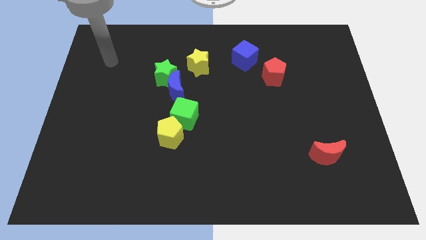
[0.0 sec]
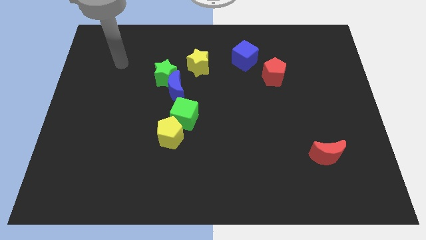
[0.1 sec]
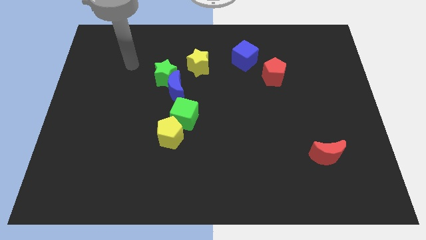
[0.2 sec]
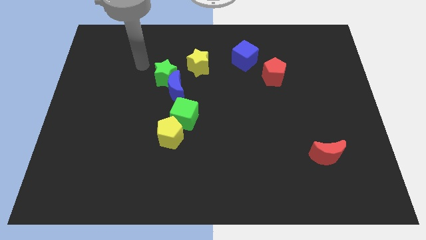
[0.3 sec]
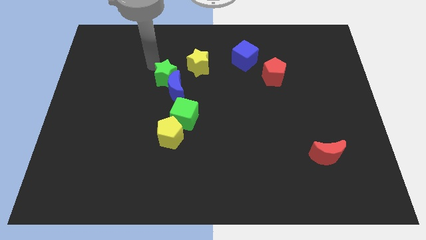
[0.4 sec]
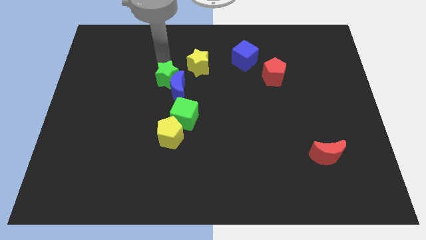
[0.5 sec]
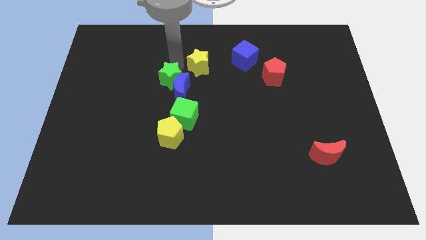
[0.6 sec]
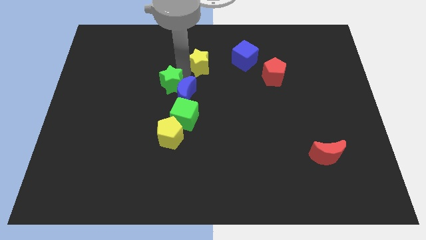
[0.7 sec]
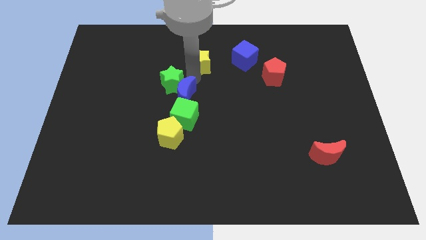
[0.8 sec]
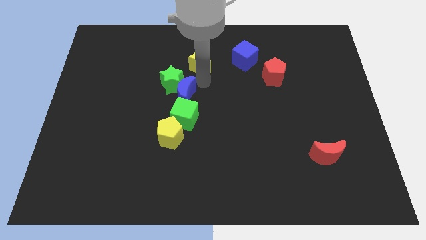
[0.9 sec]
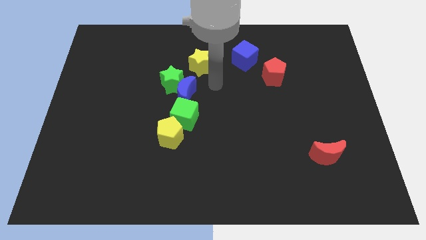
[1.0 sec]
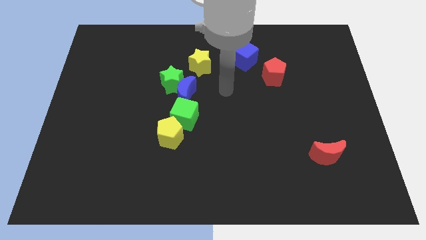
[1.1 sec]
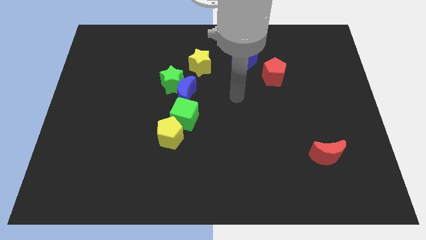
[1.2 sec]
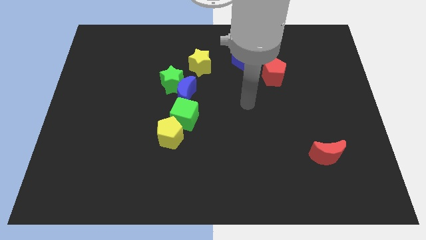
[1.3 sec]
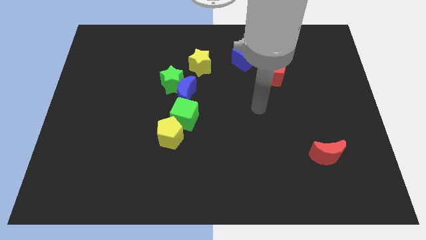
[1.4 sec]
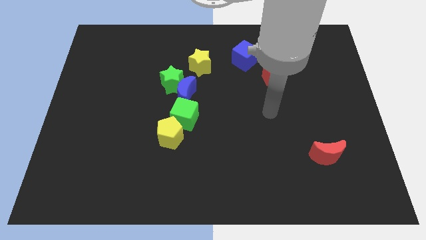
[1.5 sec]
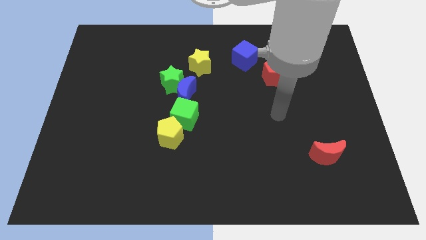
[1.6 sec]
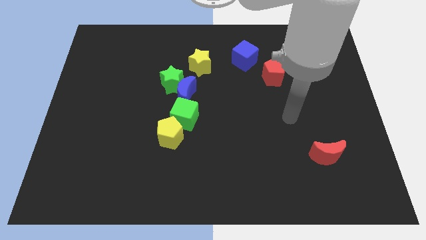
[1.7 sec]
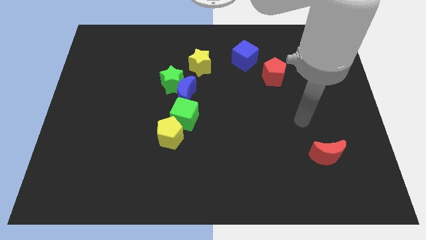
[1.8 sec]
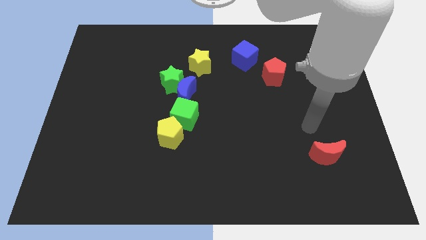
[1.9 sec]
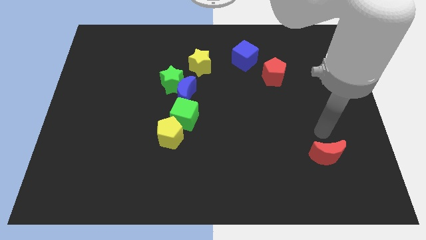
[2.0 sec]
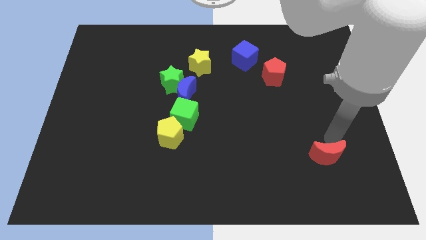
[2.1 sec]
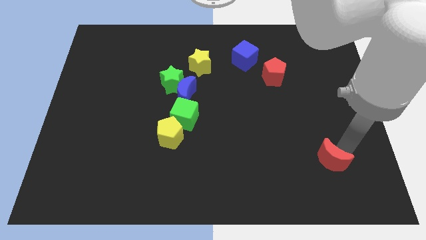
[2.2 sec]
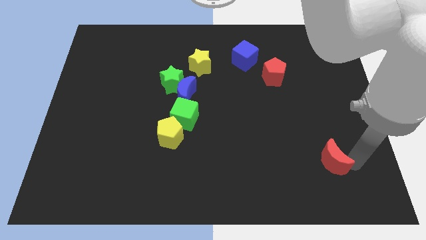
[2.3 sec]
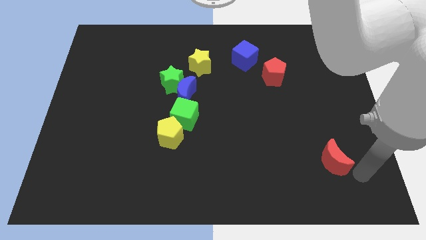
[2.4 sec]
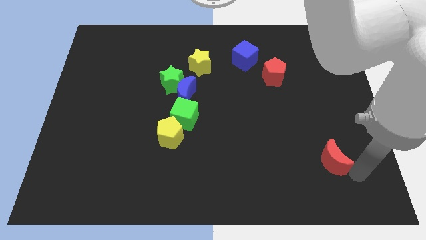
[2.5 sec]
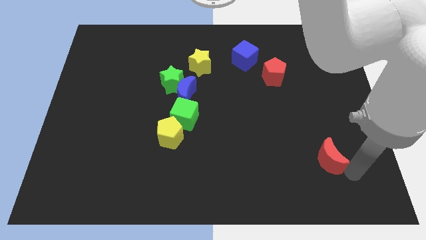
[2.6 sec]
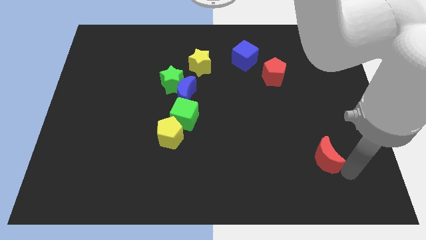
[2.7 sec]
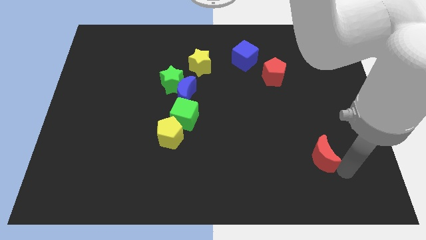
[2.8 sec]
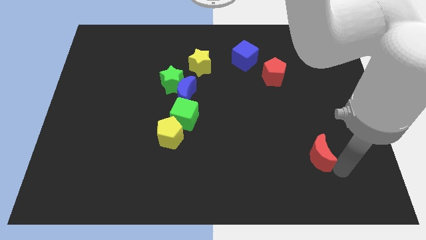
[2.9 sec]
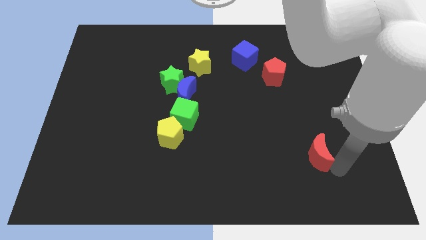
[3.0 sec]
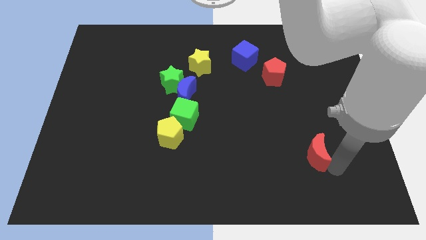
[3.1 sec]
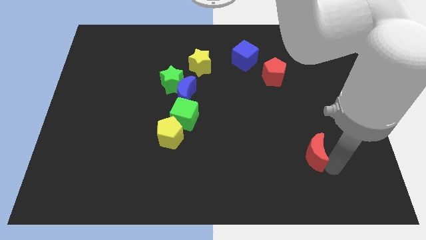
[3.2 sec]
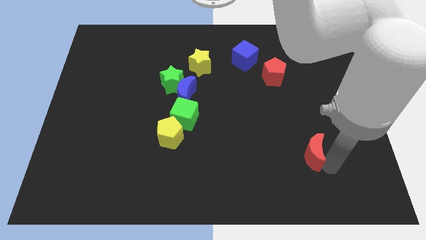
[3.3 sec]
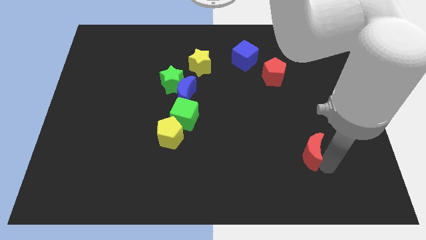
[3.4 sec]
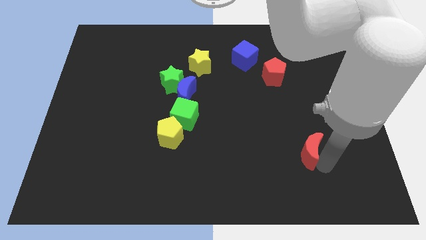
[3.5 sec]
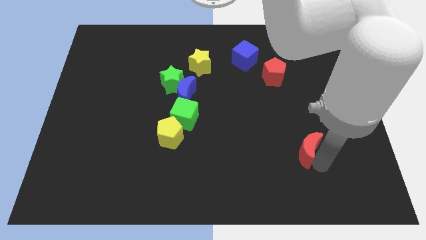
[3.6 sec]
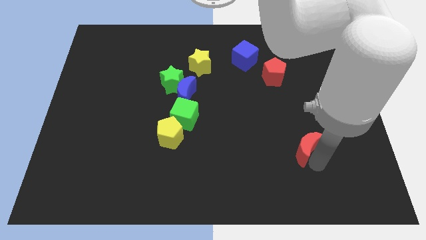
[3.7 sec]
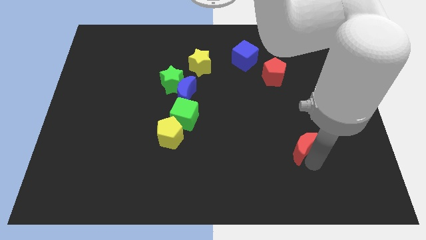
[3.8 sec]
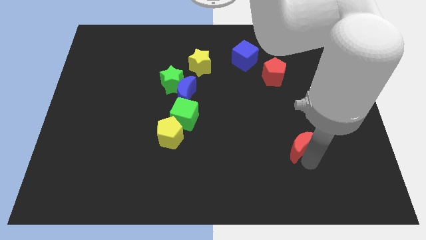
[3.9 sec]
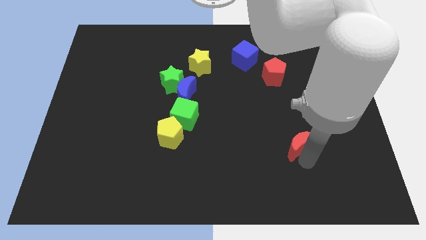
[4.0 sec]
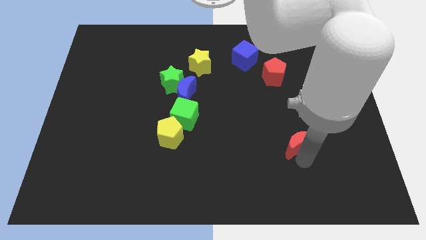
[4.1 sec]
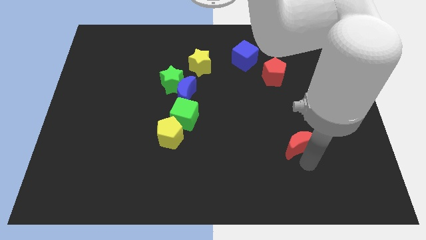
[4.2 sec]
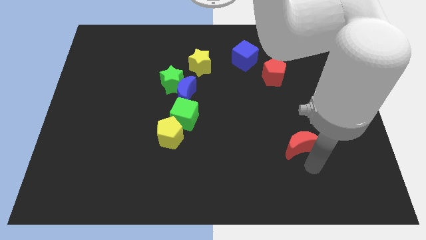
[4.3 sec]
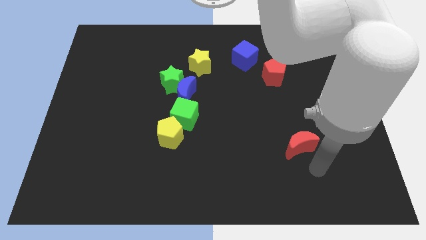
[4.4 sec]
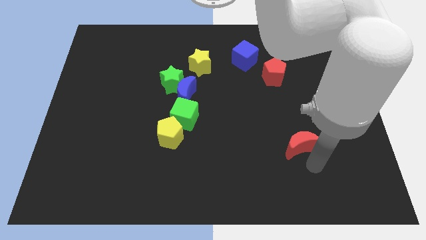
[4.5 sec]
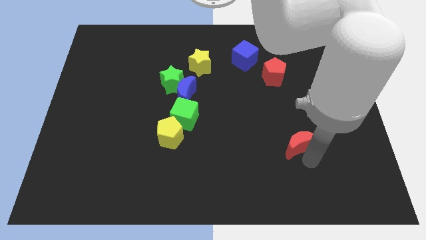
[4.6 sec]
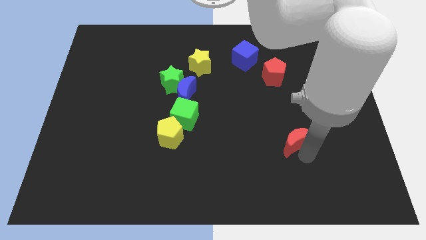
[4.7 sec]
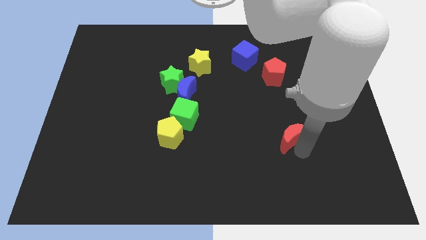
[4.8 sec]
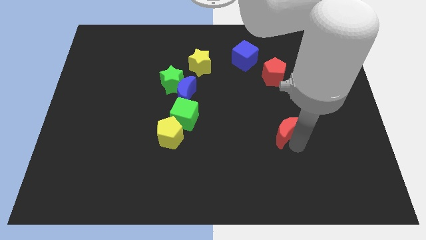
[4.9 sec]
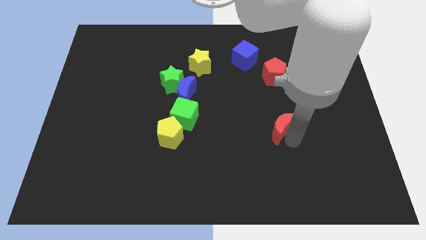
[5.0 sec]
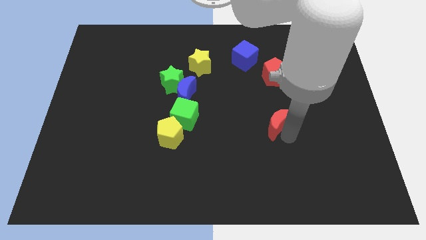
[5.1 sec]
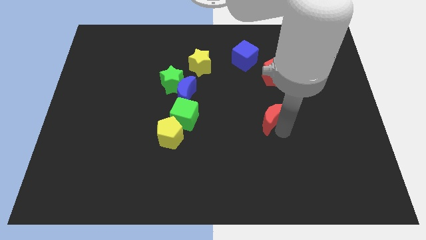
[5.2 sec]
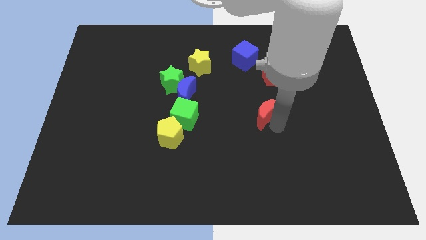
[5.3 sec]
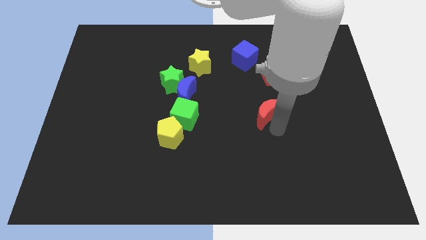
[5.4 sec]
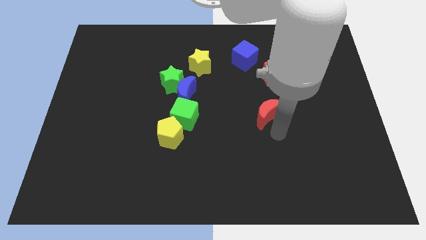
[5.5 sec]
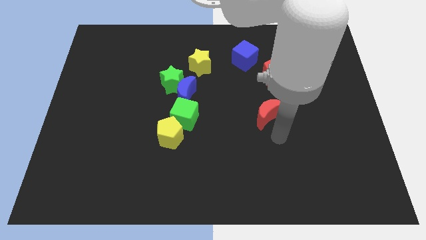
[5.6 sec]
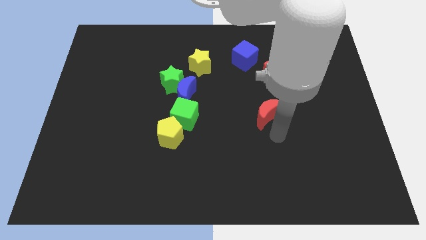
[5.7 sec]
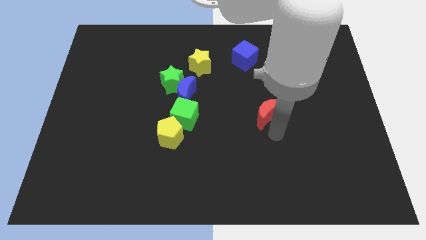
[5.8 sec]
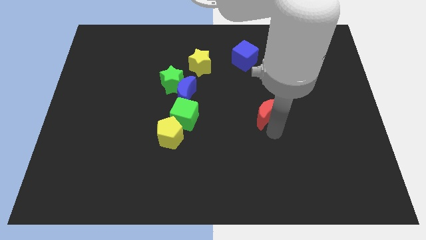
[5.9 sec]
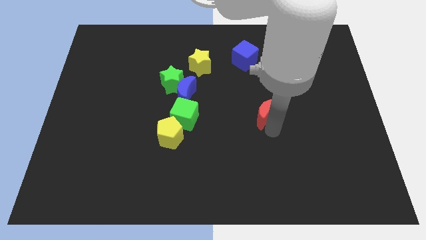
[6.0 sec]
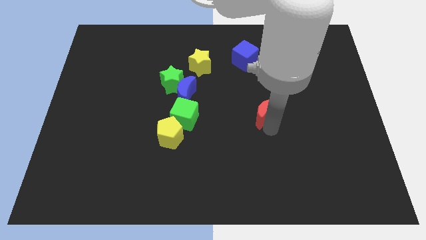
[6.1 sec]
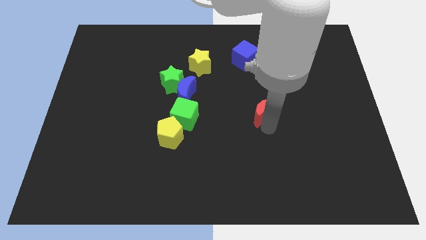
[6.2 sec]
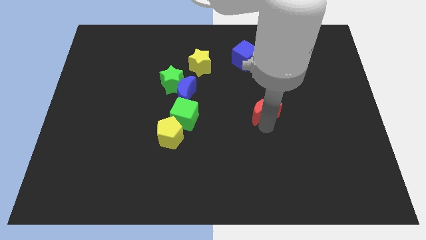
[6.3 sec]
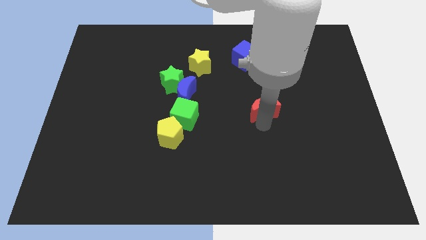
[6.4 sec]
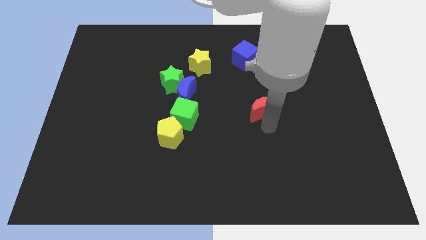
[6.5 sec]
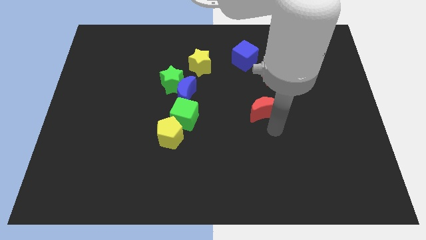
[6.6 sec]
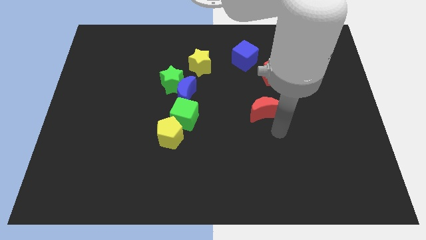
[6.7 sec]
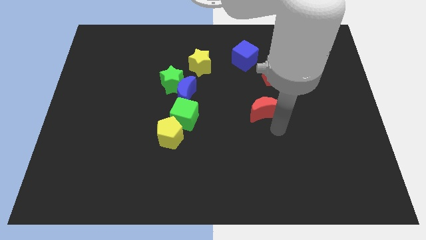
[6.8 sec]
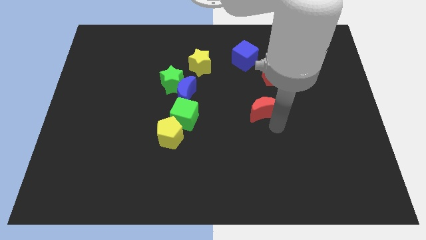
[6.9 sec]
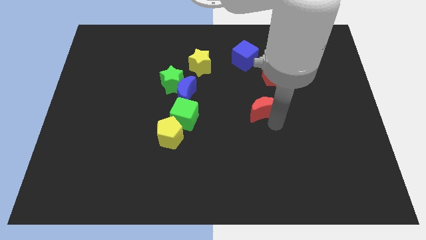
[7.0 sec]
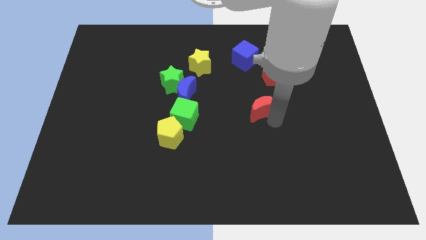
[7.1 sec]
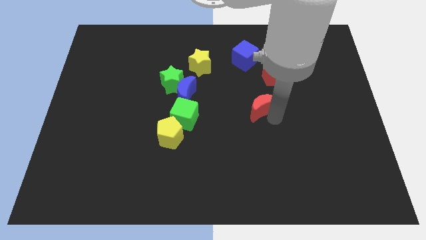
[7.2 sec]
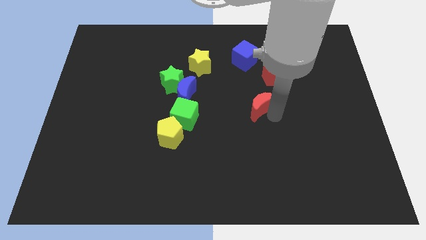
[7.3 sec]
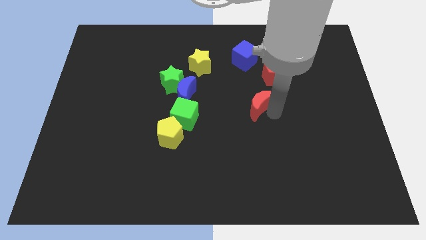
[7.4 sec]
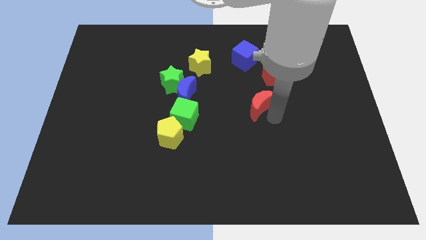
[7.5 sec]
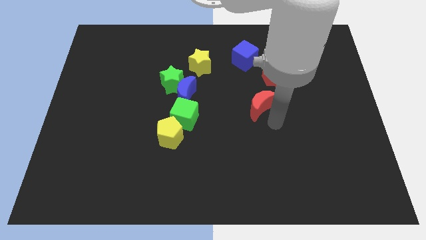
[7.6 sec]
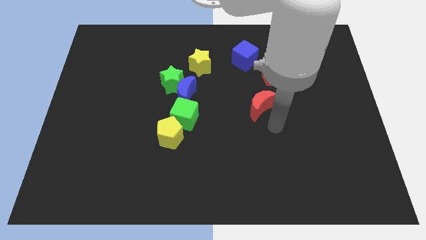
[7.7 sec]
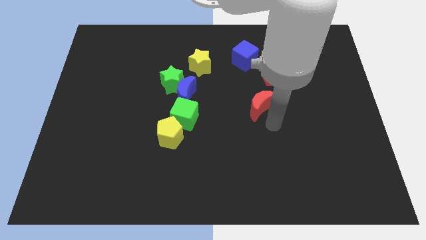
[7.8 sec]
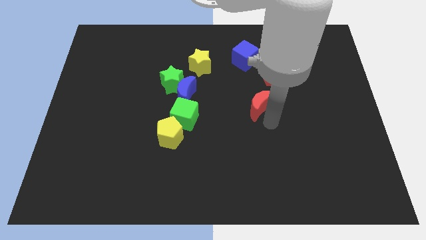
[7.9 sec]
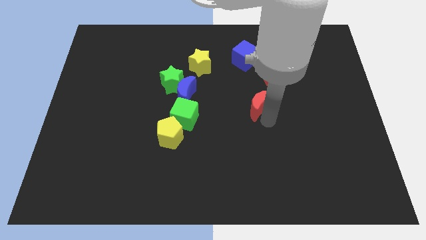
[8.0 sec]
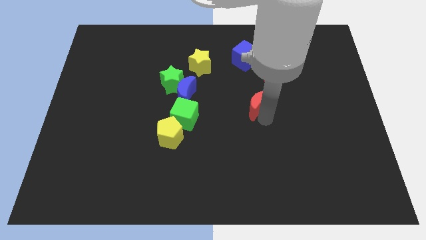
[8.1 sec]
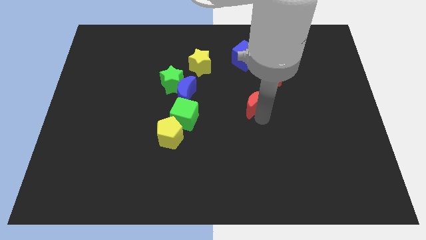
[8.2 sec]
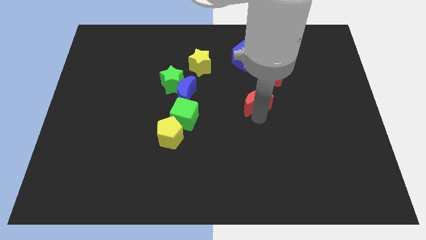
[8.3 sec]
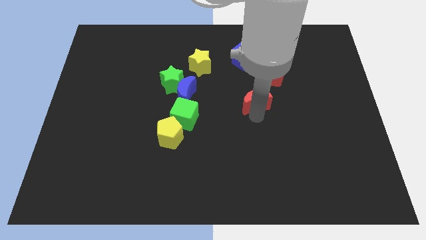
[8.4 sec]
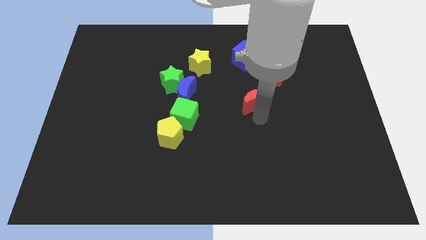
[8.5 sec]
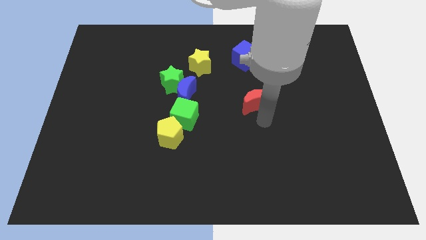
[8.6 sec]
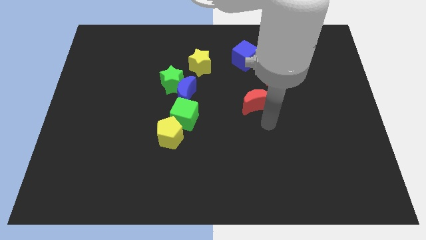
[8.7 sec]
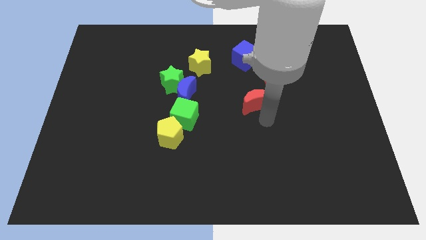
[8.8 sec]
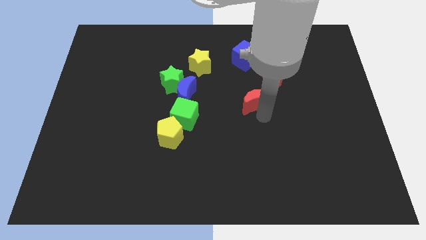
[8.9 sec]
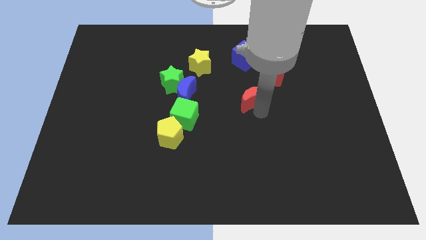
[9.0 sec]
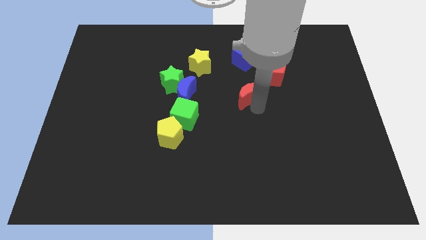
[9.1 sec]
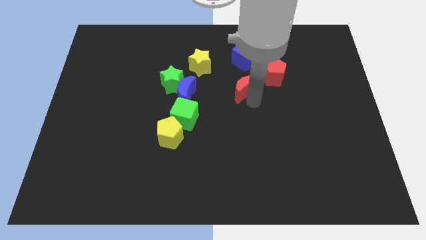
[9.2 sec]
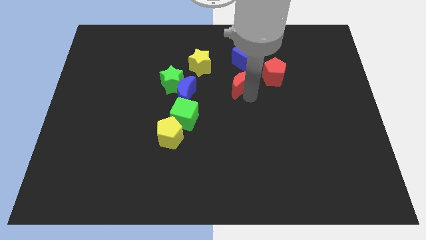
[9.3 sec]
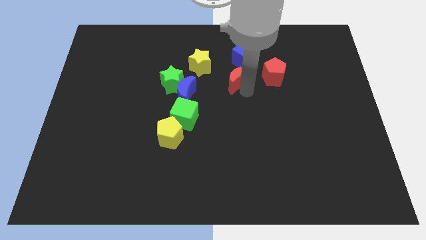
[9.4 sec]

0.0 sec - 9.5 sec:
push the red moon to the bottom left of the blue cube
